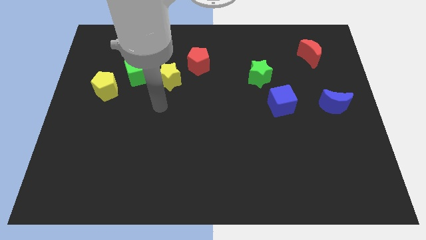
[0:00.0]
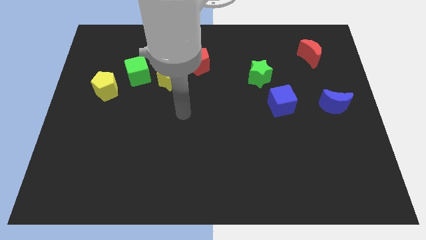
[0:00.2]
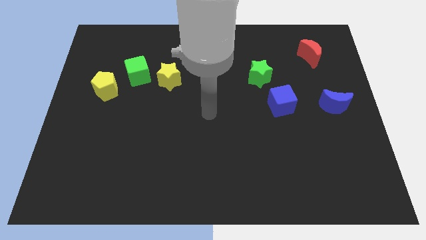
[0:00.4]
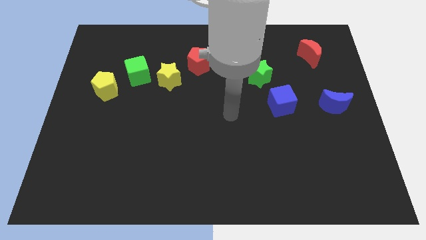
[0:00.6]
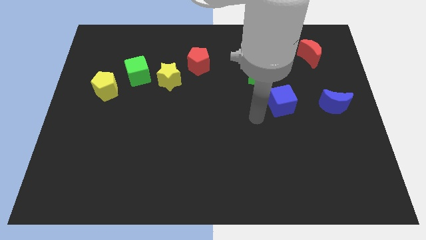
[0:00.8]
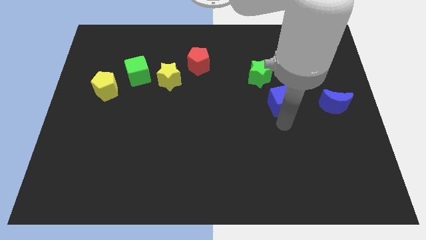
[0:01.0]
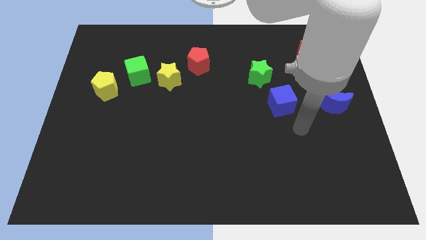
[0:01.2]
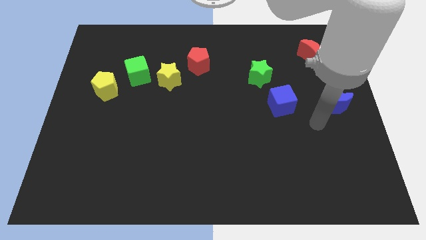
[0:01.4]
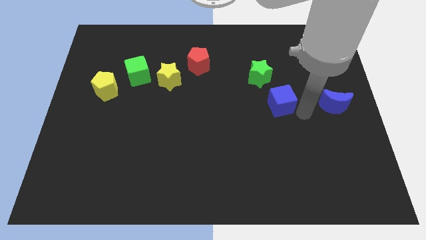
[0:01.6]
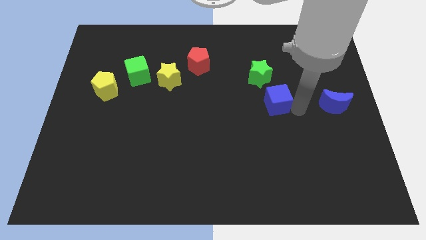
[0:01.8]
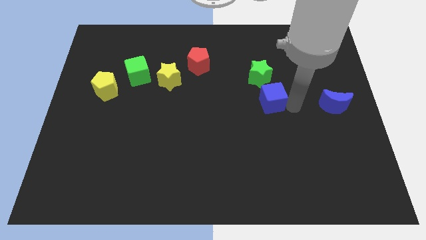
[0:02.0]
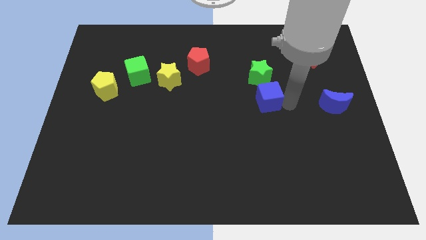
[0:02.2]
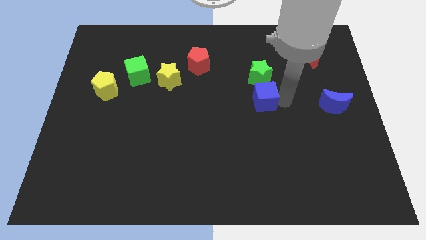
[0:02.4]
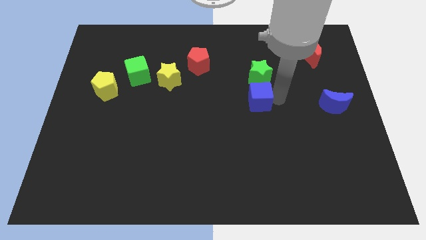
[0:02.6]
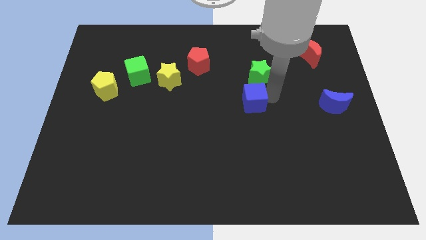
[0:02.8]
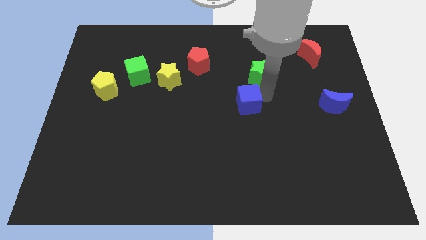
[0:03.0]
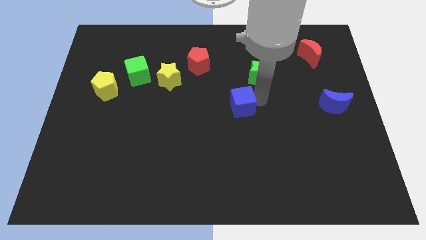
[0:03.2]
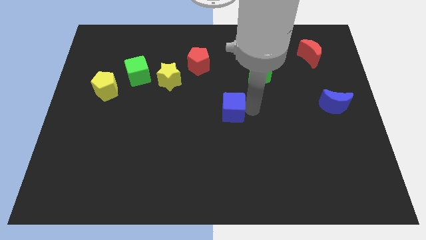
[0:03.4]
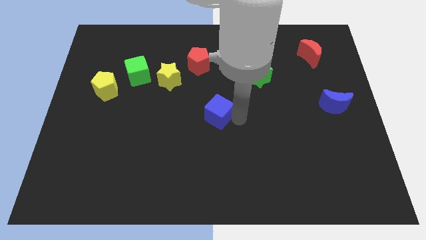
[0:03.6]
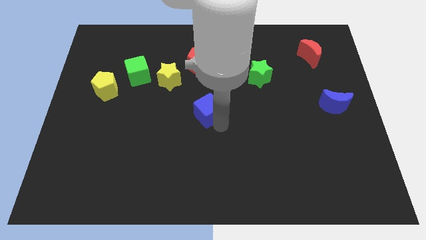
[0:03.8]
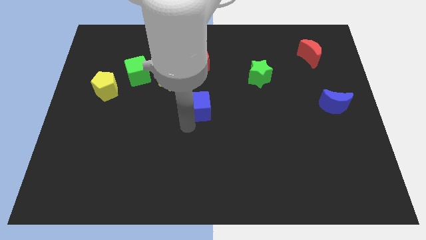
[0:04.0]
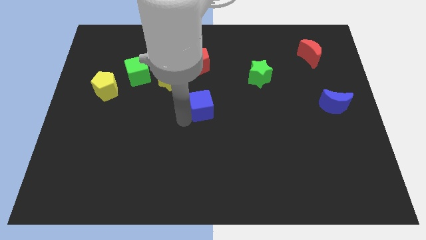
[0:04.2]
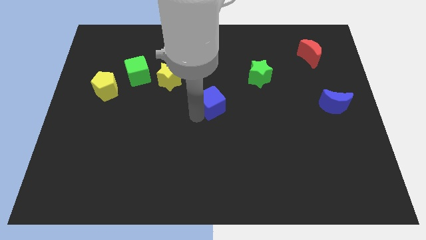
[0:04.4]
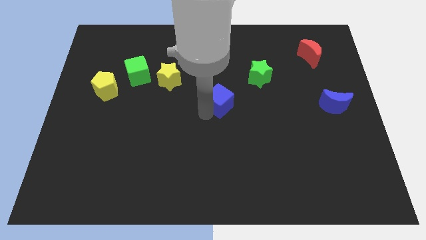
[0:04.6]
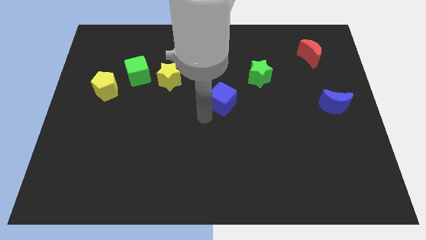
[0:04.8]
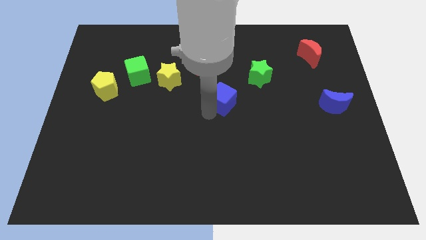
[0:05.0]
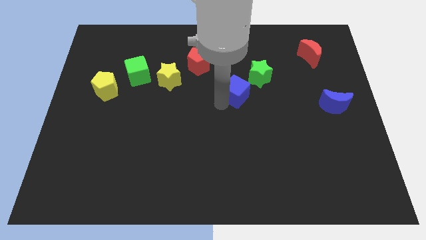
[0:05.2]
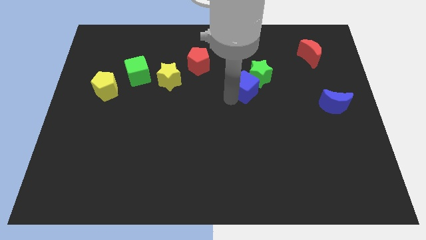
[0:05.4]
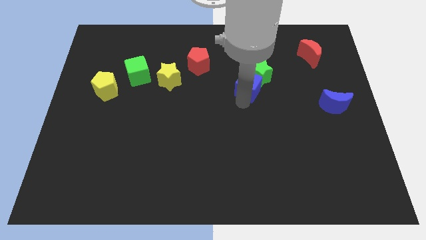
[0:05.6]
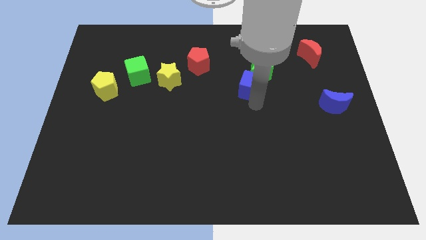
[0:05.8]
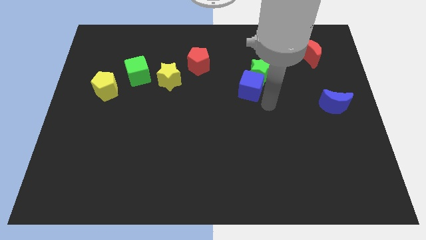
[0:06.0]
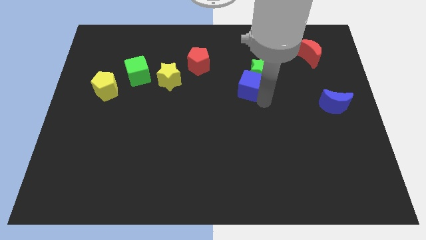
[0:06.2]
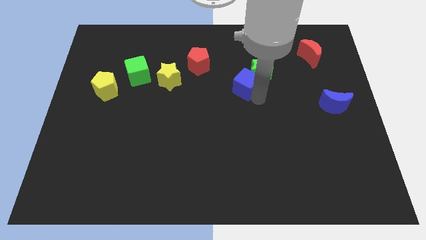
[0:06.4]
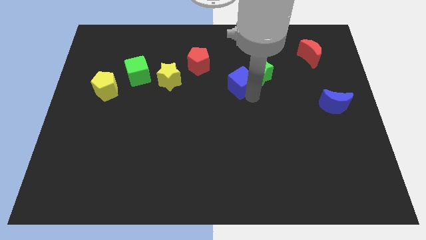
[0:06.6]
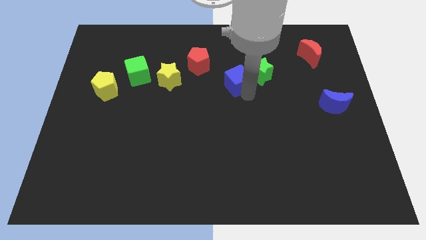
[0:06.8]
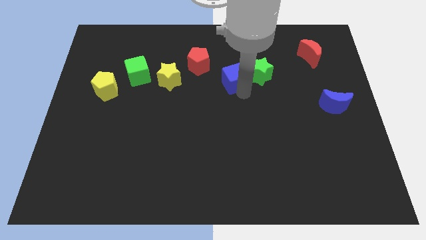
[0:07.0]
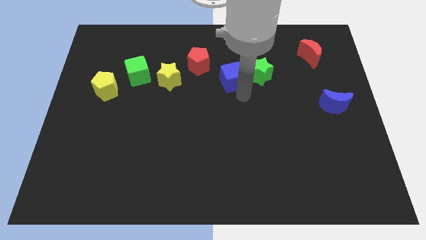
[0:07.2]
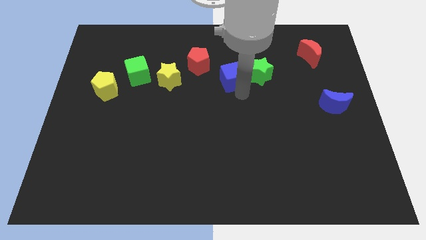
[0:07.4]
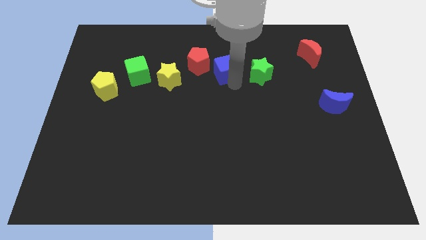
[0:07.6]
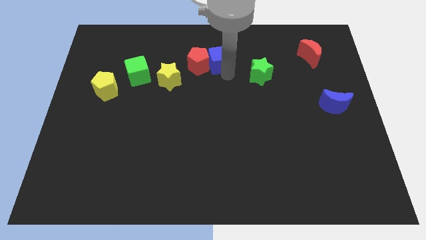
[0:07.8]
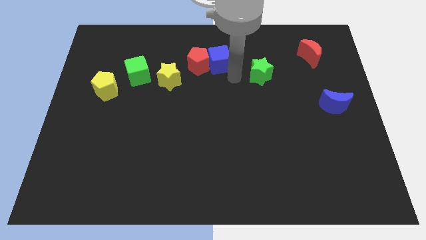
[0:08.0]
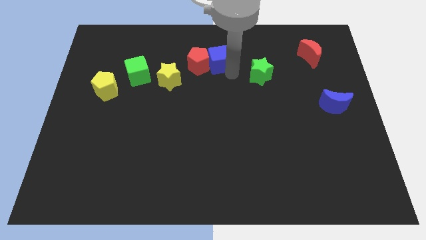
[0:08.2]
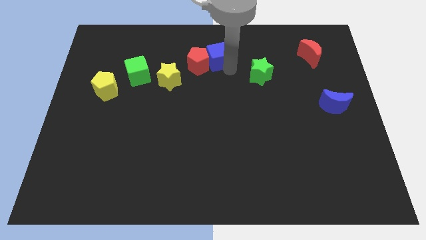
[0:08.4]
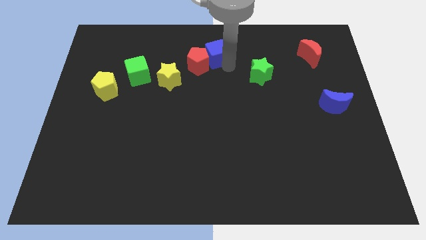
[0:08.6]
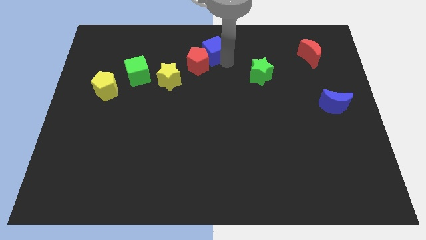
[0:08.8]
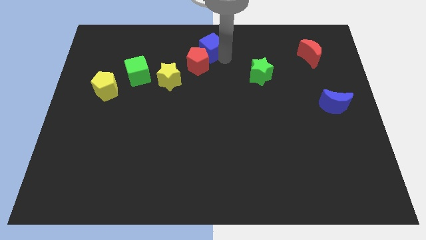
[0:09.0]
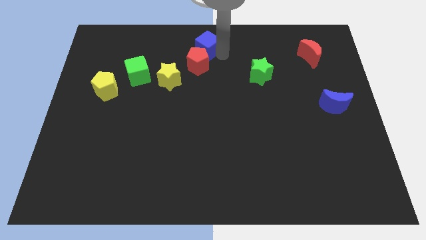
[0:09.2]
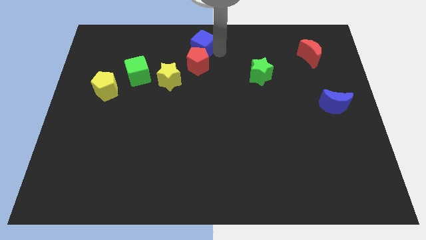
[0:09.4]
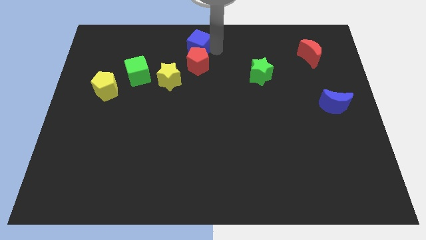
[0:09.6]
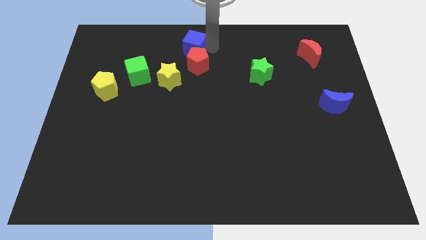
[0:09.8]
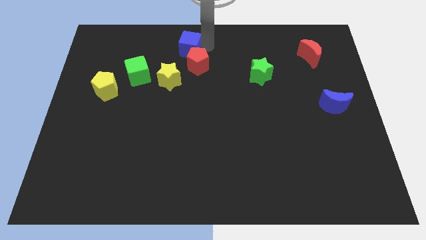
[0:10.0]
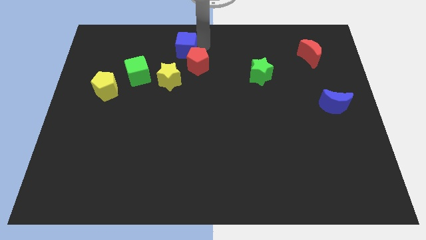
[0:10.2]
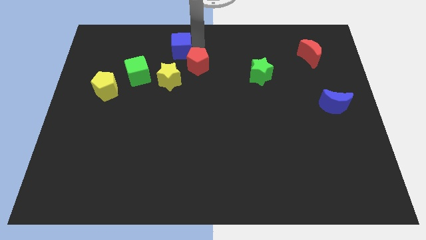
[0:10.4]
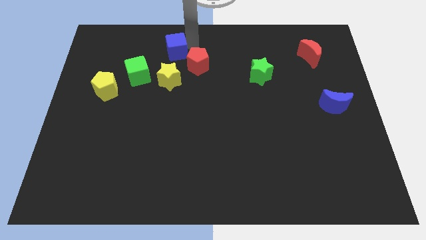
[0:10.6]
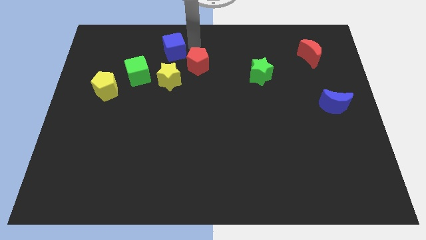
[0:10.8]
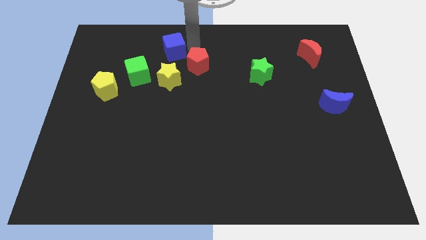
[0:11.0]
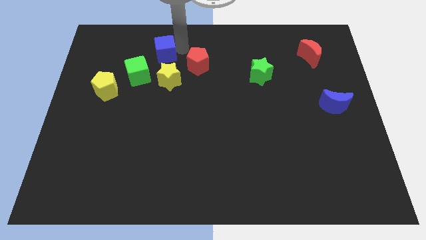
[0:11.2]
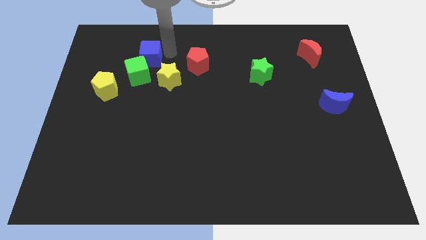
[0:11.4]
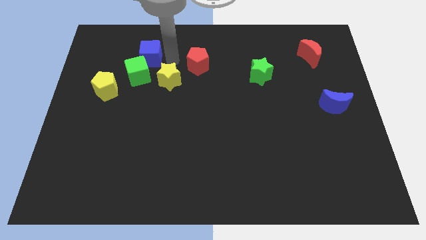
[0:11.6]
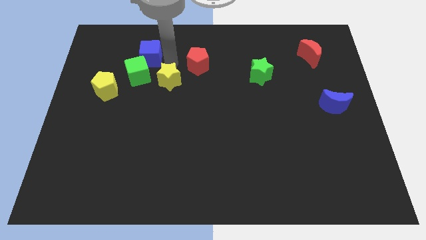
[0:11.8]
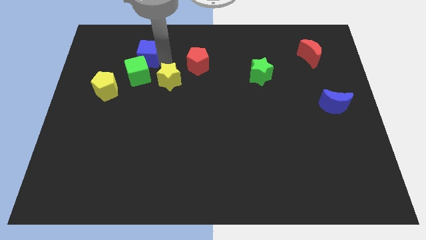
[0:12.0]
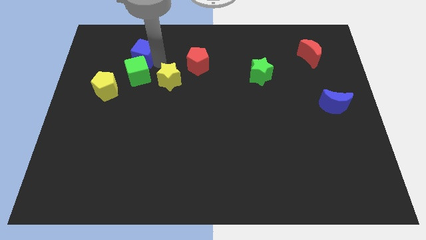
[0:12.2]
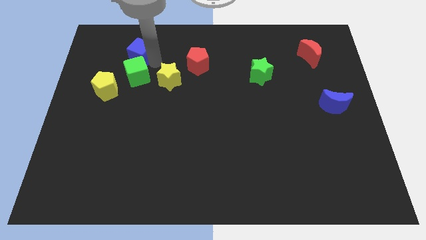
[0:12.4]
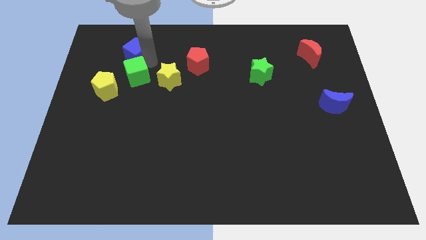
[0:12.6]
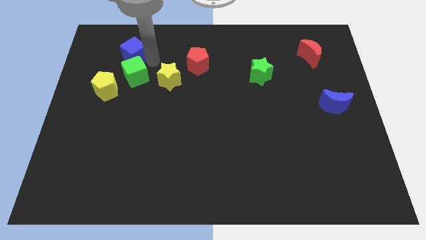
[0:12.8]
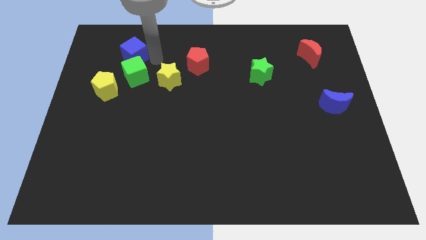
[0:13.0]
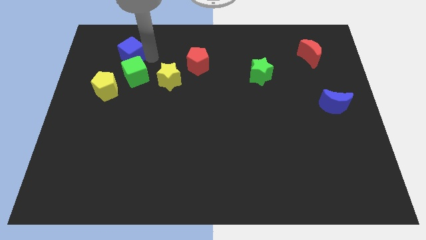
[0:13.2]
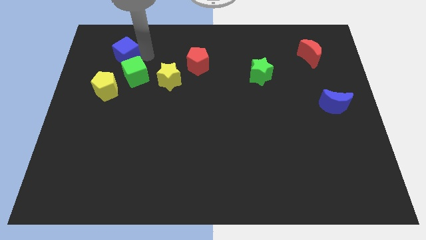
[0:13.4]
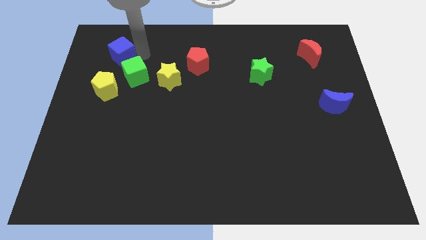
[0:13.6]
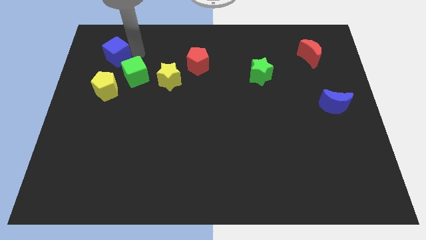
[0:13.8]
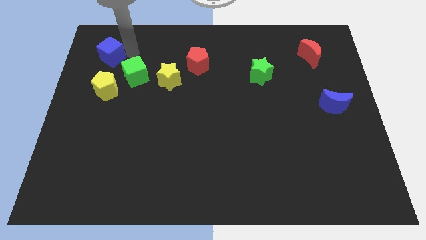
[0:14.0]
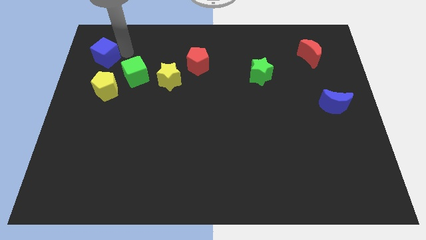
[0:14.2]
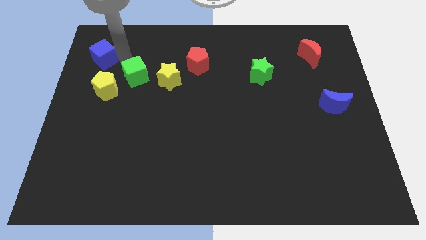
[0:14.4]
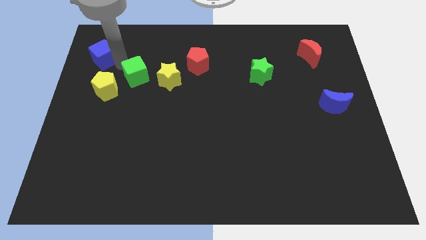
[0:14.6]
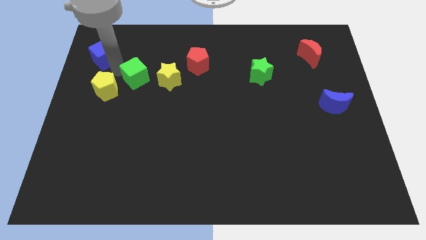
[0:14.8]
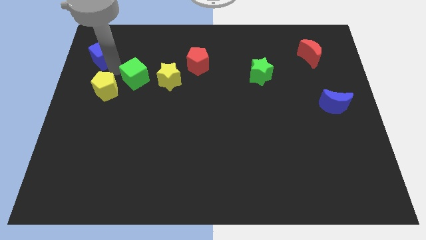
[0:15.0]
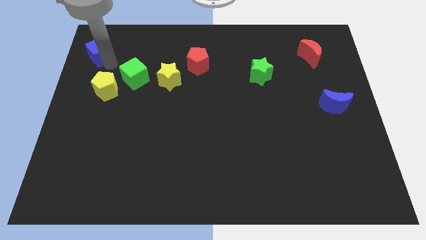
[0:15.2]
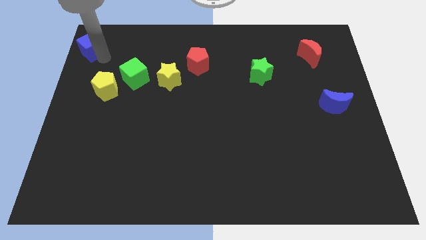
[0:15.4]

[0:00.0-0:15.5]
push the blue cube to the upper left corner
